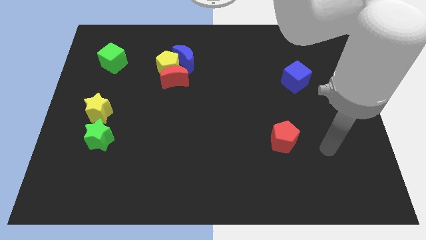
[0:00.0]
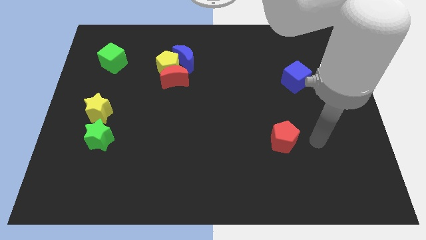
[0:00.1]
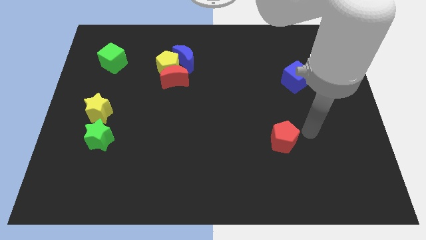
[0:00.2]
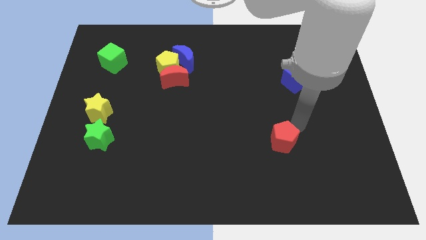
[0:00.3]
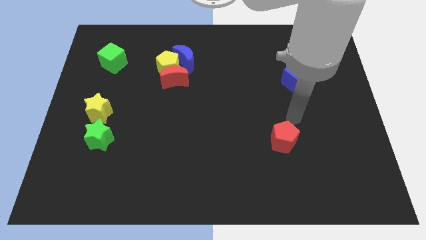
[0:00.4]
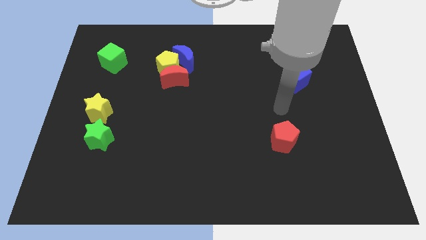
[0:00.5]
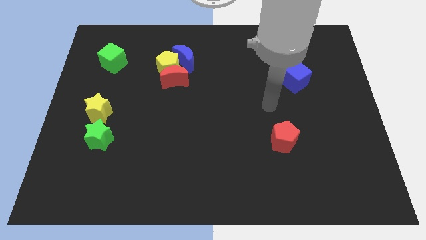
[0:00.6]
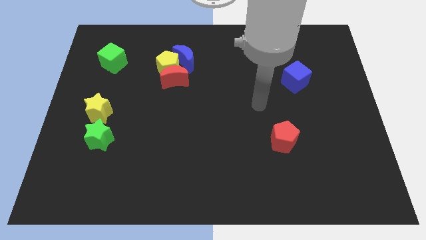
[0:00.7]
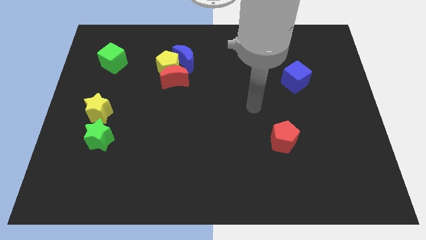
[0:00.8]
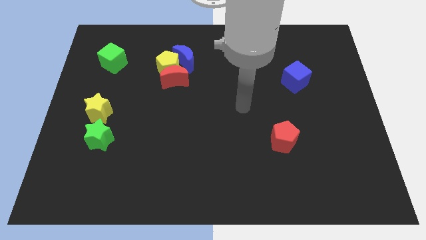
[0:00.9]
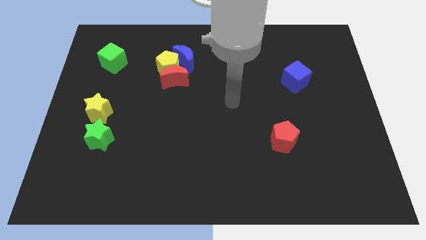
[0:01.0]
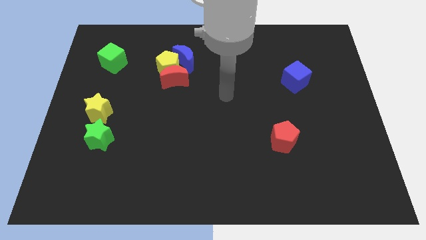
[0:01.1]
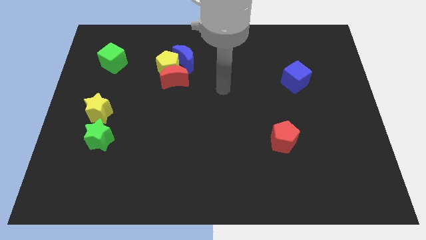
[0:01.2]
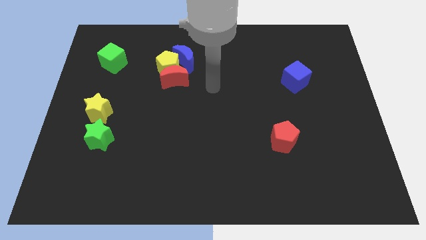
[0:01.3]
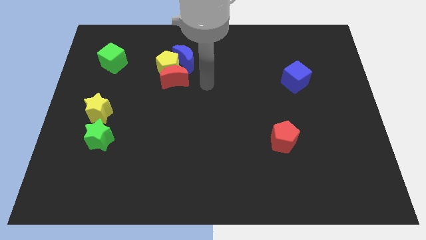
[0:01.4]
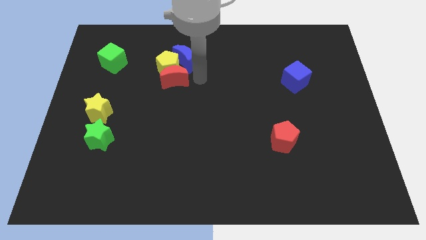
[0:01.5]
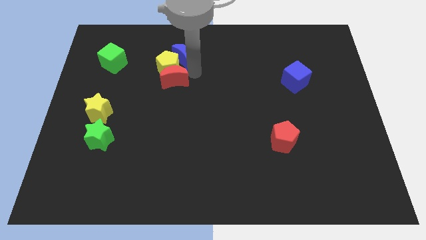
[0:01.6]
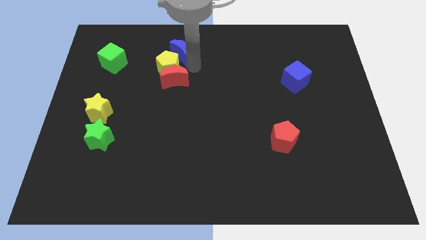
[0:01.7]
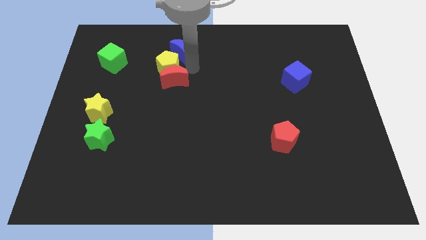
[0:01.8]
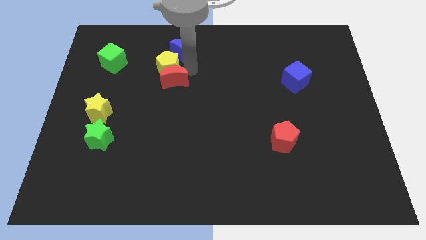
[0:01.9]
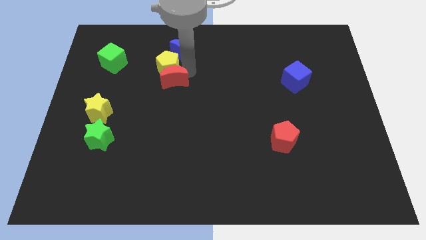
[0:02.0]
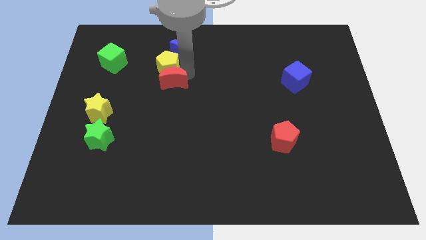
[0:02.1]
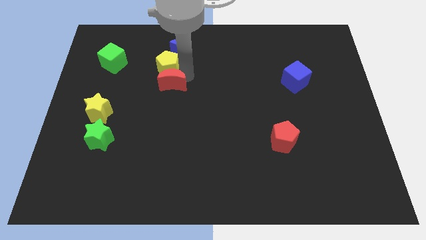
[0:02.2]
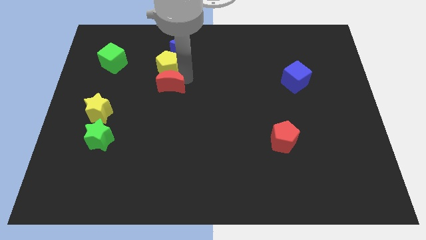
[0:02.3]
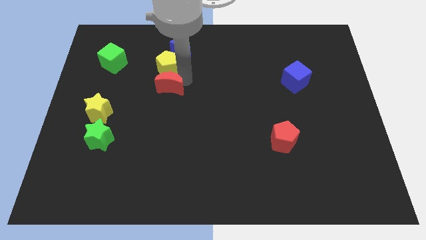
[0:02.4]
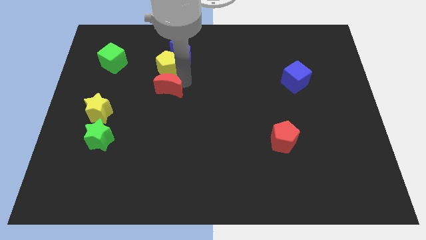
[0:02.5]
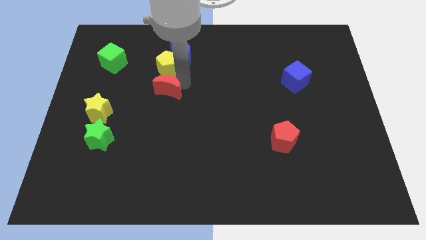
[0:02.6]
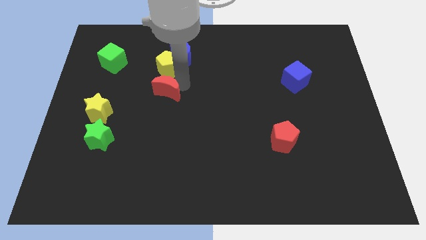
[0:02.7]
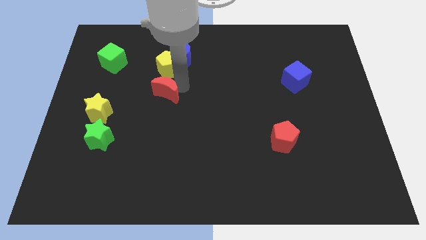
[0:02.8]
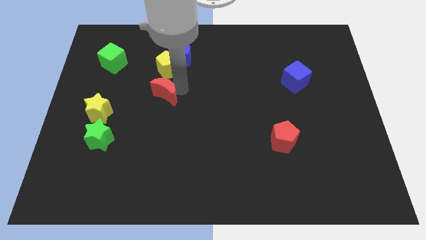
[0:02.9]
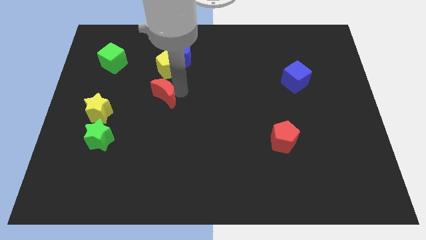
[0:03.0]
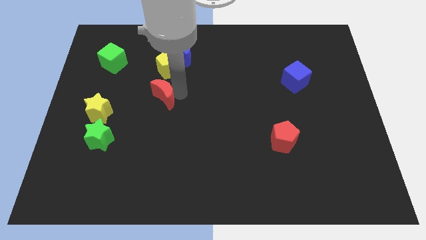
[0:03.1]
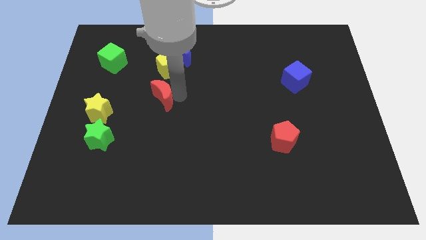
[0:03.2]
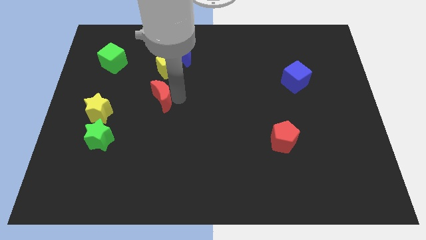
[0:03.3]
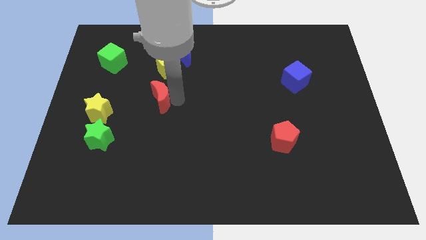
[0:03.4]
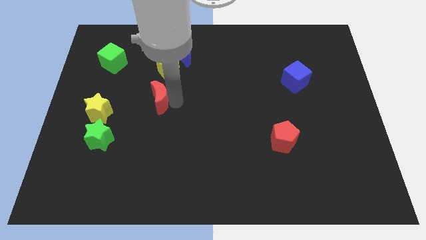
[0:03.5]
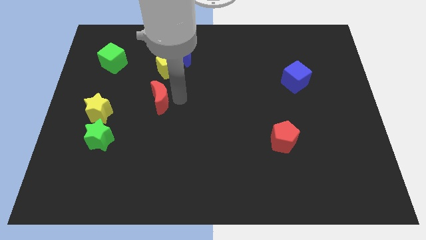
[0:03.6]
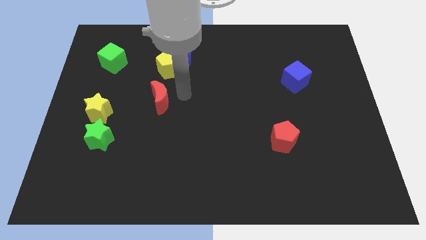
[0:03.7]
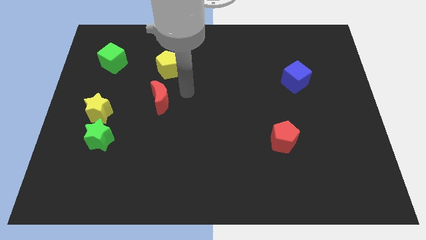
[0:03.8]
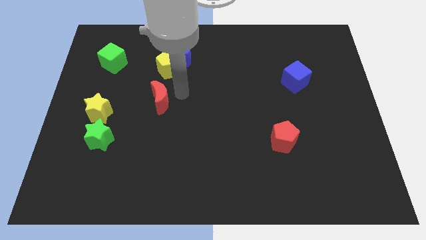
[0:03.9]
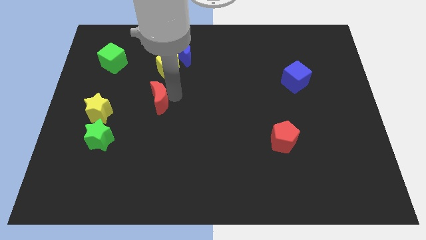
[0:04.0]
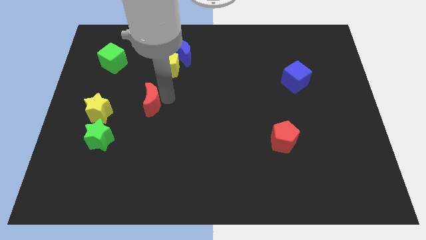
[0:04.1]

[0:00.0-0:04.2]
move the red moon downwards and then to the left slightly

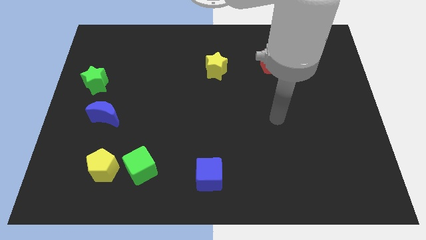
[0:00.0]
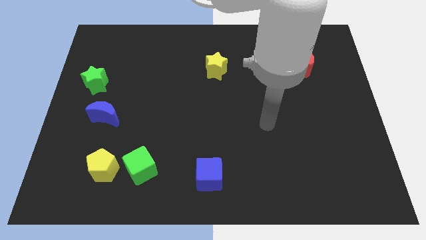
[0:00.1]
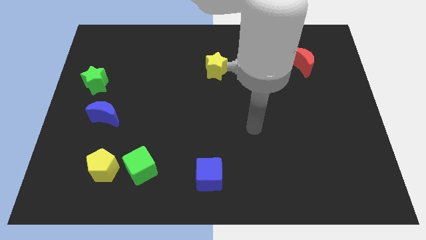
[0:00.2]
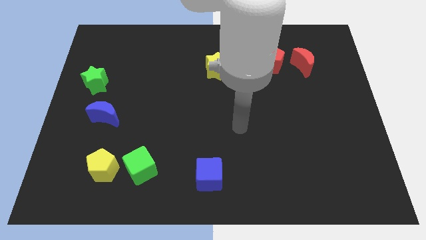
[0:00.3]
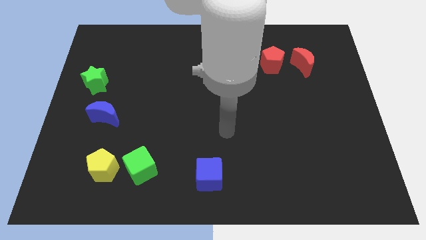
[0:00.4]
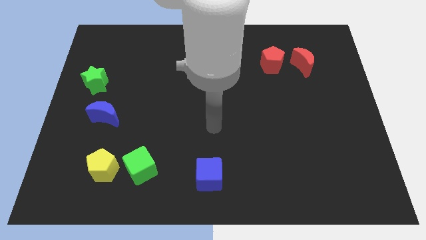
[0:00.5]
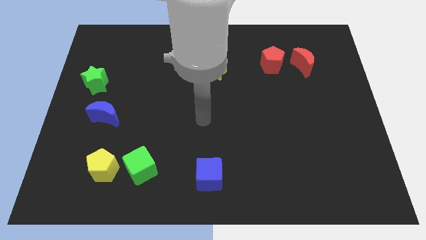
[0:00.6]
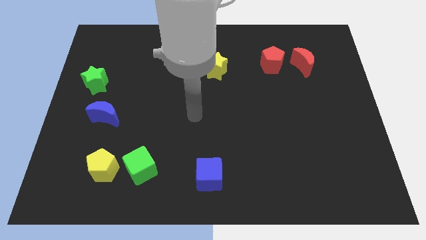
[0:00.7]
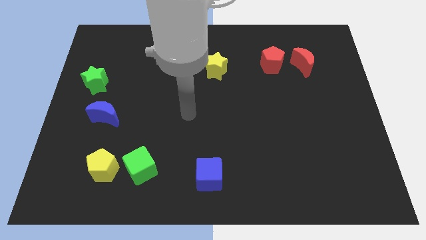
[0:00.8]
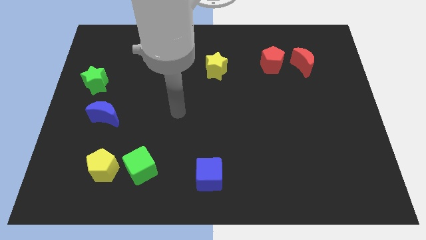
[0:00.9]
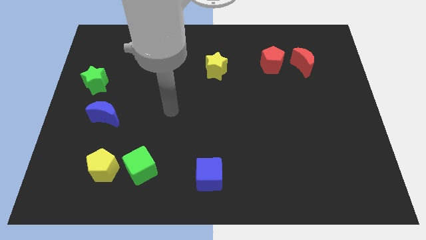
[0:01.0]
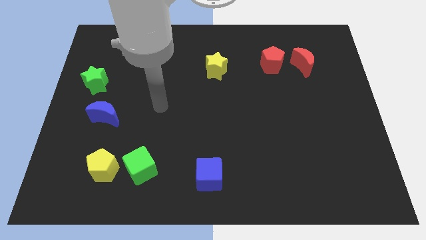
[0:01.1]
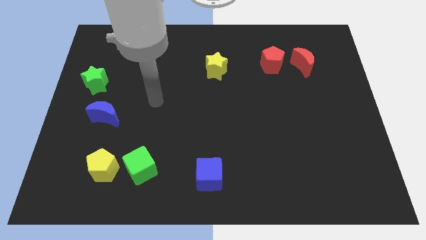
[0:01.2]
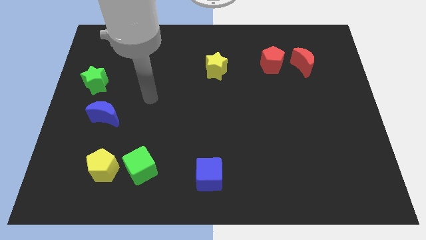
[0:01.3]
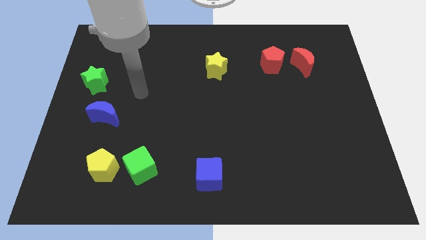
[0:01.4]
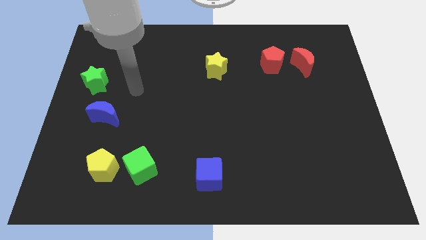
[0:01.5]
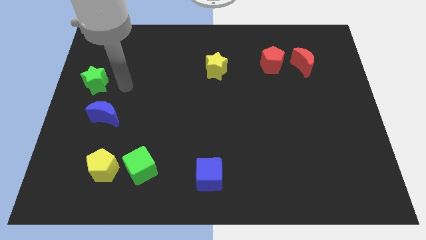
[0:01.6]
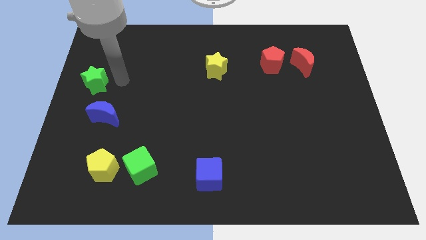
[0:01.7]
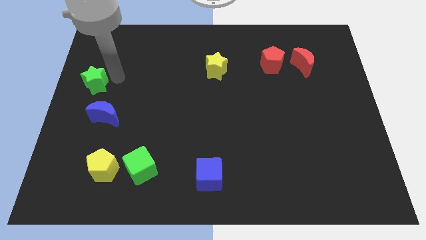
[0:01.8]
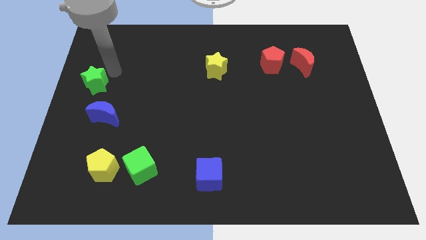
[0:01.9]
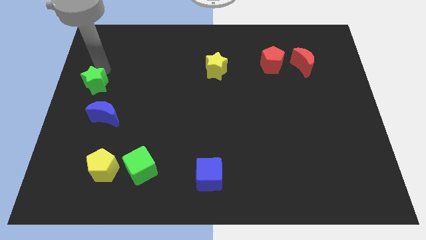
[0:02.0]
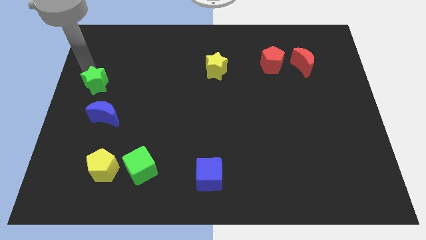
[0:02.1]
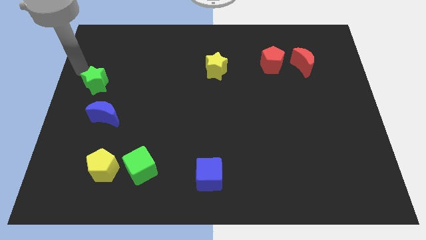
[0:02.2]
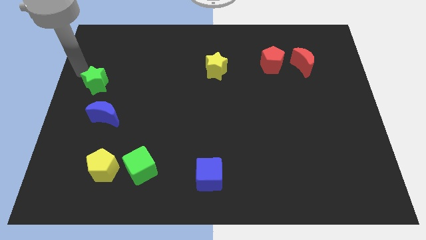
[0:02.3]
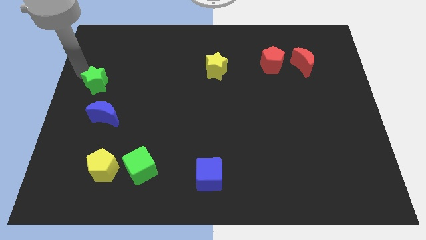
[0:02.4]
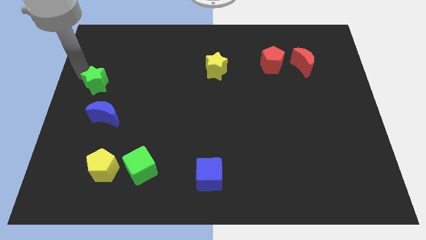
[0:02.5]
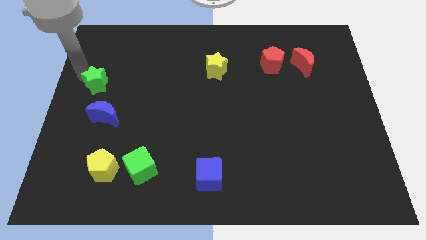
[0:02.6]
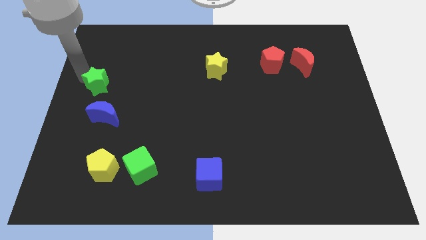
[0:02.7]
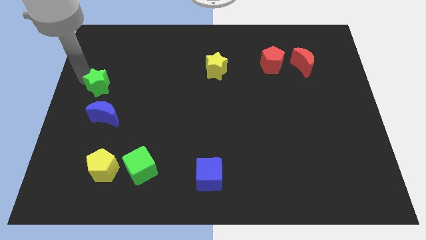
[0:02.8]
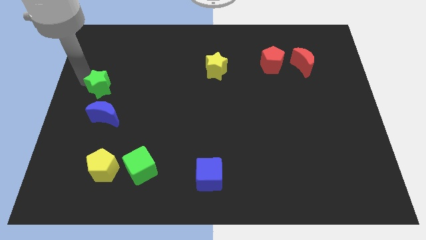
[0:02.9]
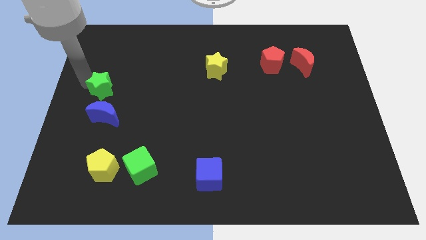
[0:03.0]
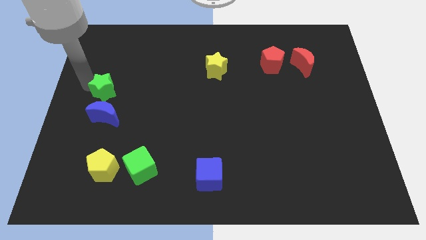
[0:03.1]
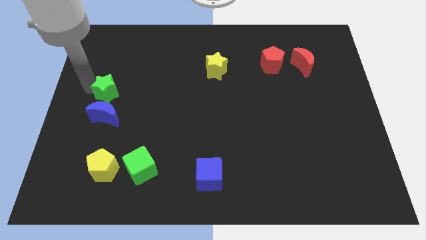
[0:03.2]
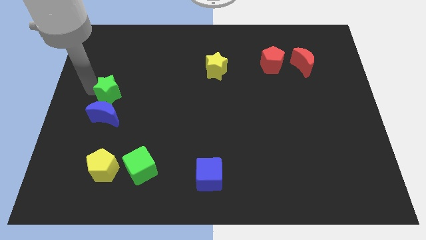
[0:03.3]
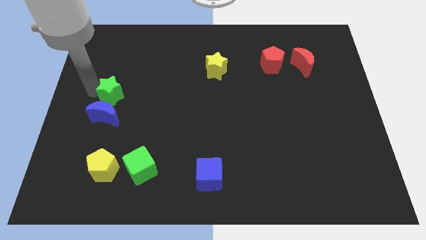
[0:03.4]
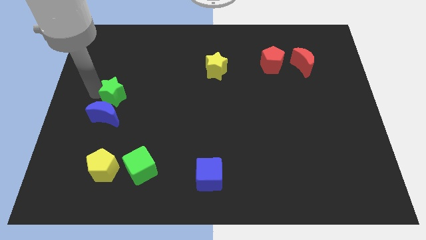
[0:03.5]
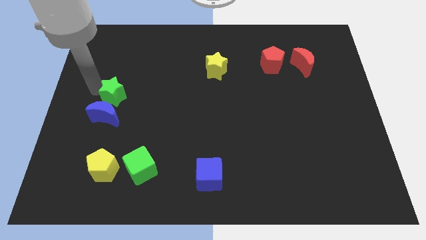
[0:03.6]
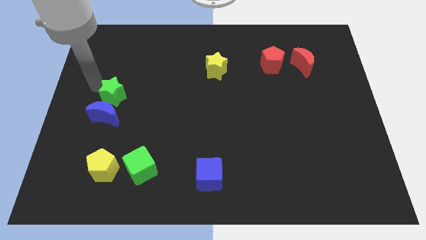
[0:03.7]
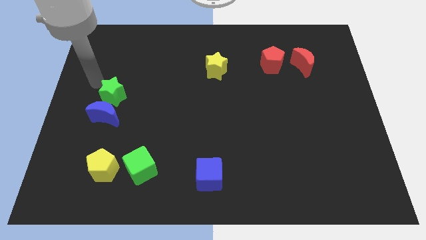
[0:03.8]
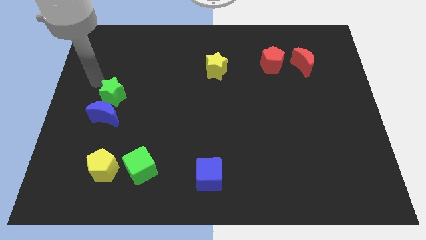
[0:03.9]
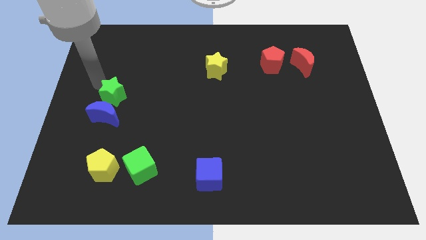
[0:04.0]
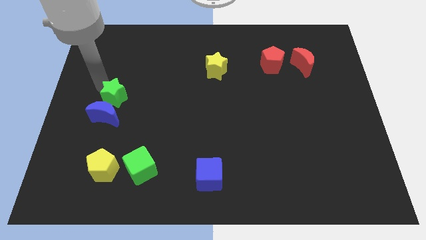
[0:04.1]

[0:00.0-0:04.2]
slide the green star slightly diagonally down and right
